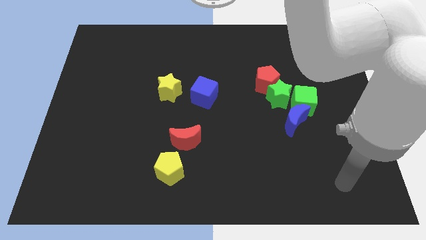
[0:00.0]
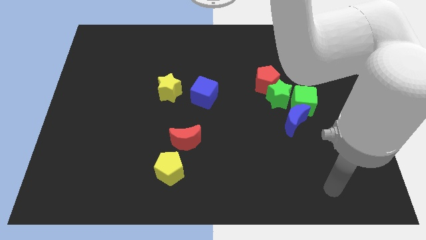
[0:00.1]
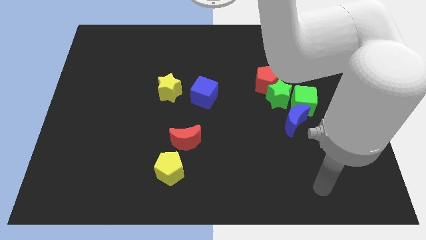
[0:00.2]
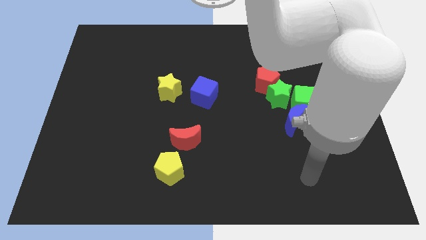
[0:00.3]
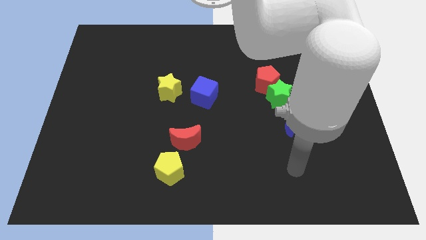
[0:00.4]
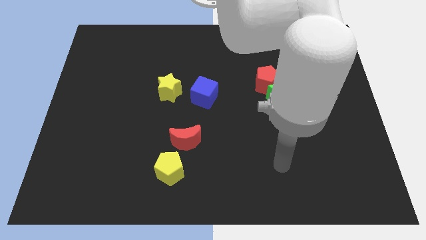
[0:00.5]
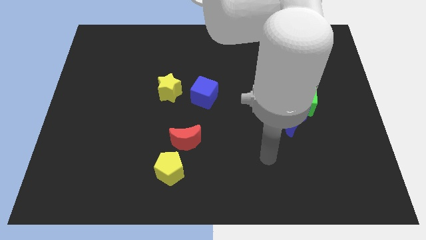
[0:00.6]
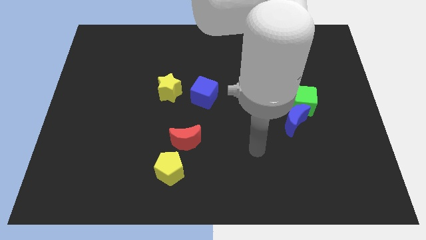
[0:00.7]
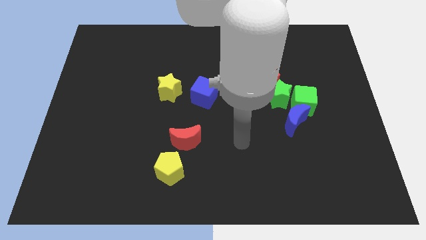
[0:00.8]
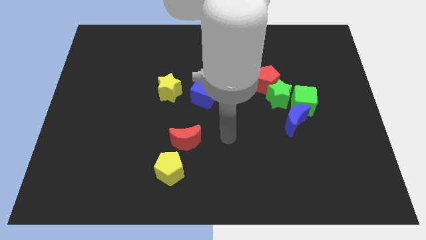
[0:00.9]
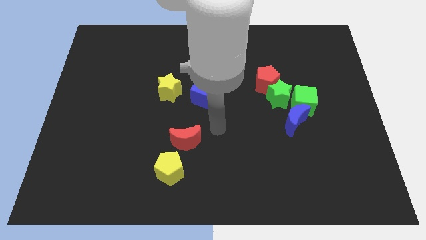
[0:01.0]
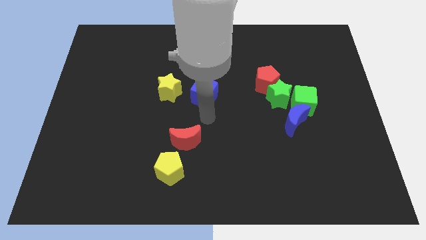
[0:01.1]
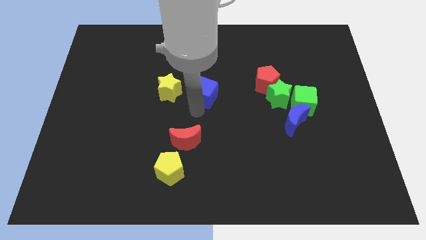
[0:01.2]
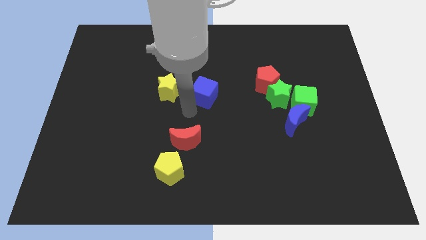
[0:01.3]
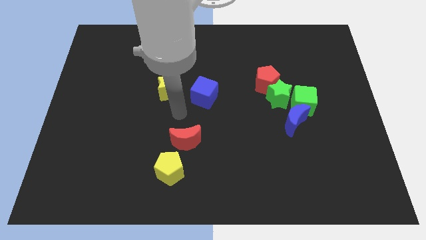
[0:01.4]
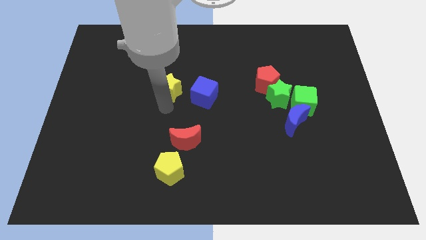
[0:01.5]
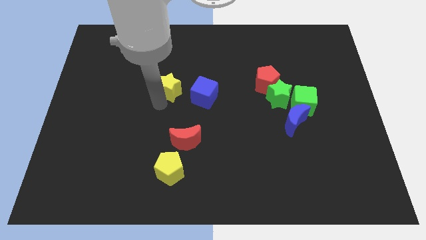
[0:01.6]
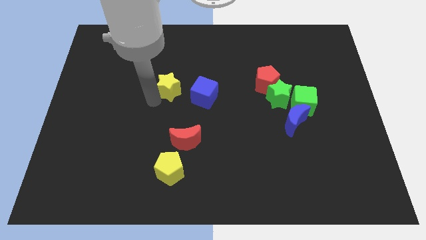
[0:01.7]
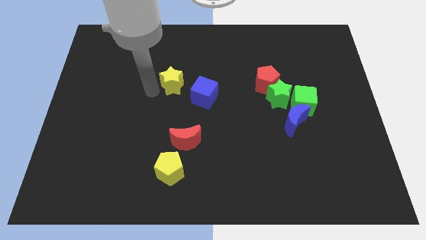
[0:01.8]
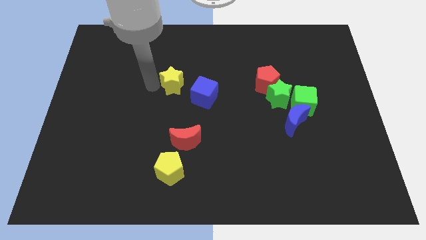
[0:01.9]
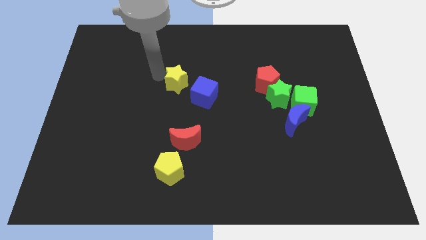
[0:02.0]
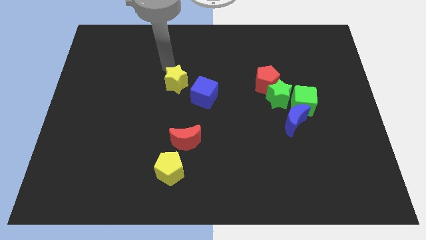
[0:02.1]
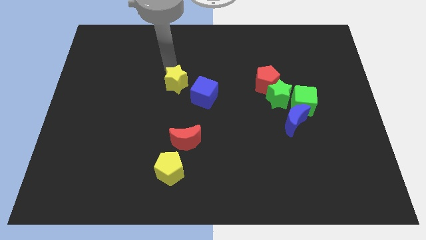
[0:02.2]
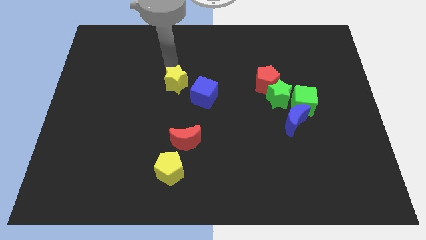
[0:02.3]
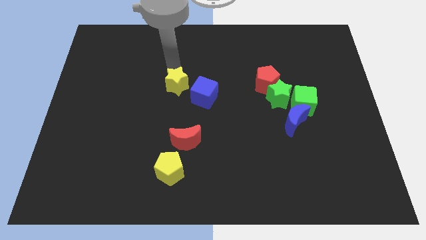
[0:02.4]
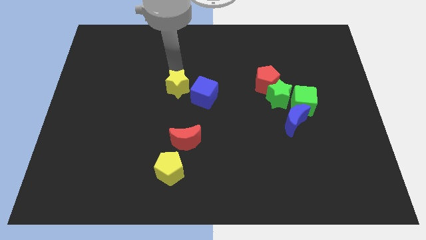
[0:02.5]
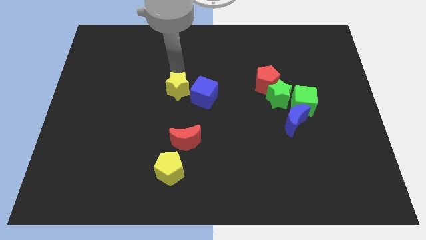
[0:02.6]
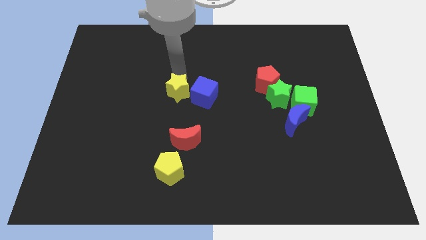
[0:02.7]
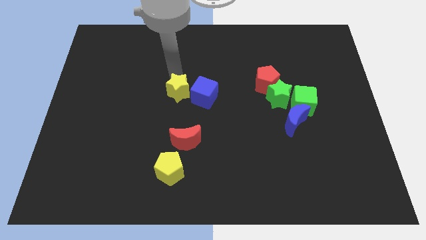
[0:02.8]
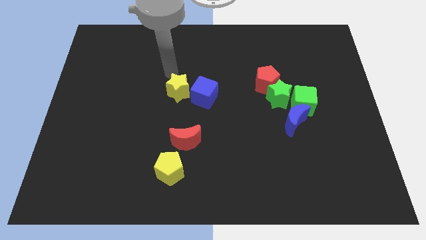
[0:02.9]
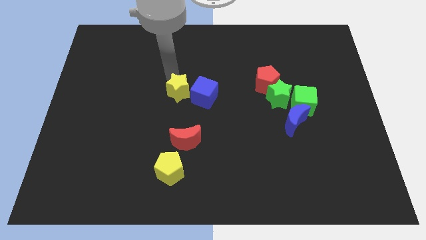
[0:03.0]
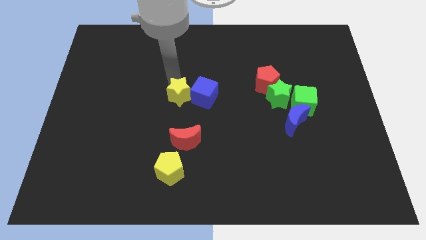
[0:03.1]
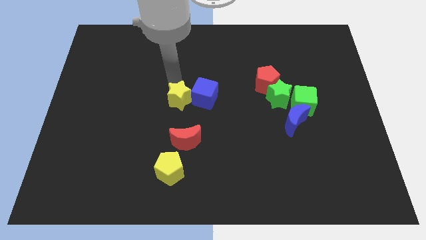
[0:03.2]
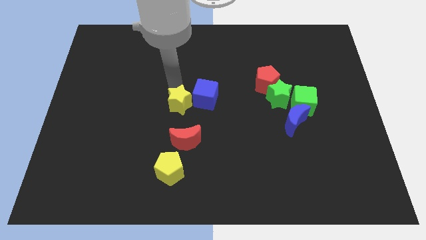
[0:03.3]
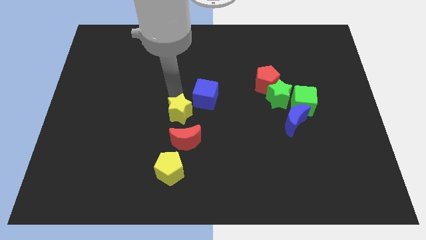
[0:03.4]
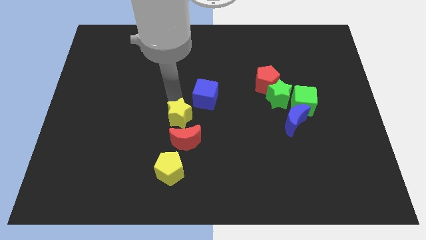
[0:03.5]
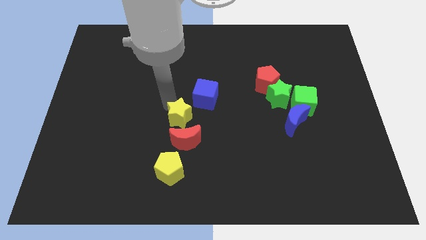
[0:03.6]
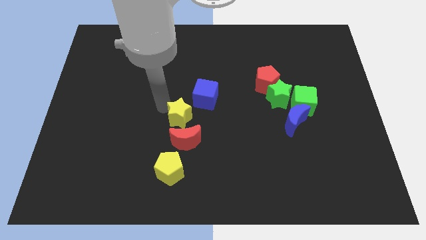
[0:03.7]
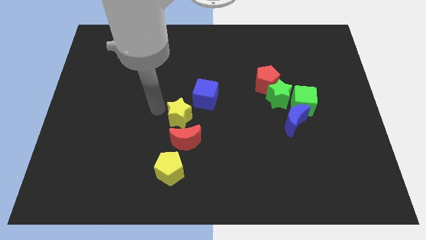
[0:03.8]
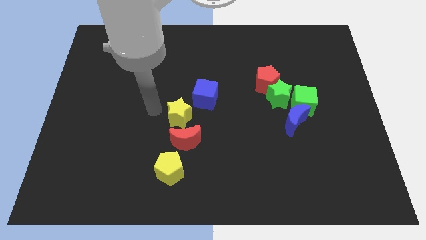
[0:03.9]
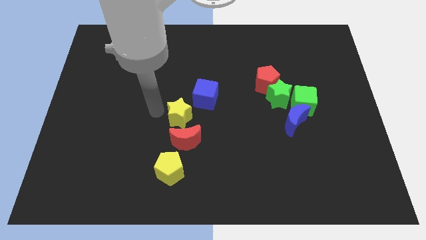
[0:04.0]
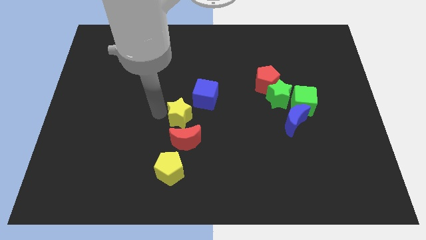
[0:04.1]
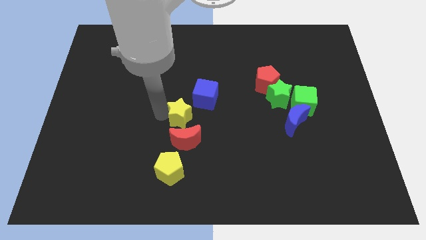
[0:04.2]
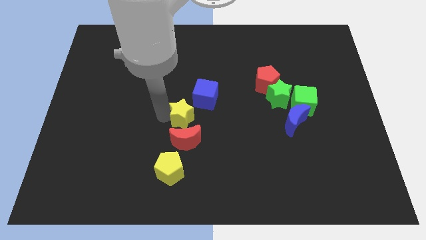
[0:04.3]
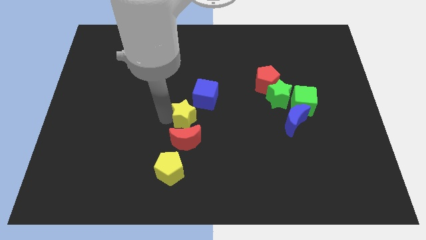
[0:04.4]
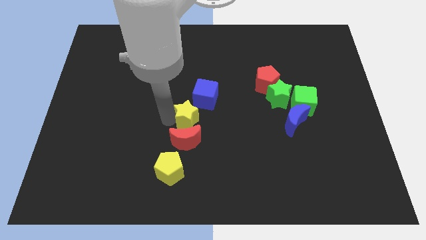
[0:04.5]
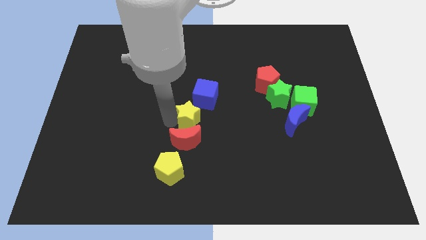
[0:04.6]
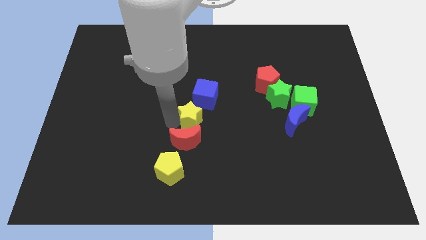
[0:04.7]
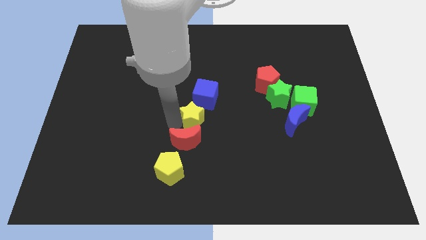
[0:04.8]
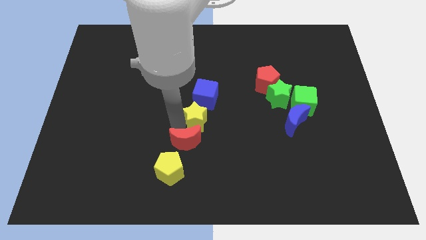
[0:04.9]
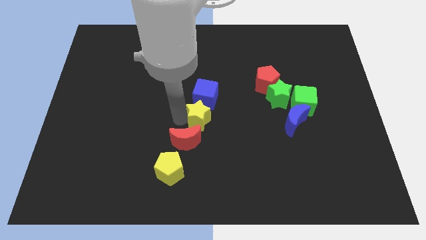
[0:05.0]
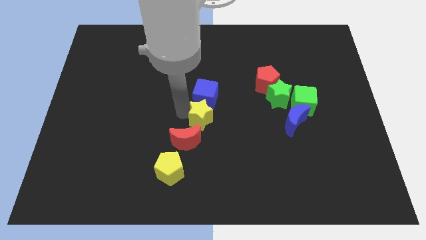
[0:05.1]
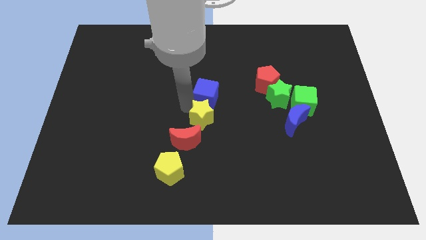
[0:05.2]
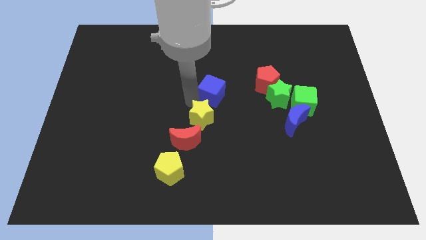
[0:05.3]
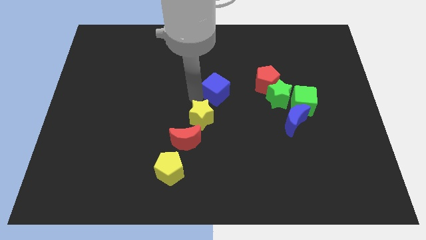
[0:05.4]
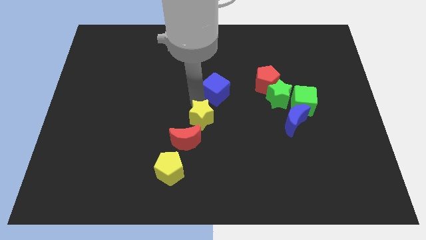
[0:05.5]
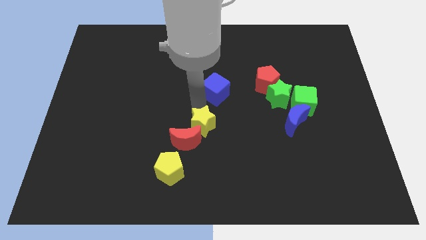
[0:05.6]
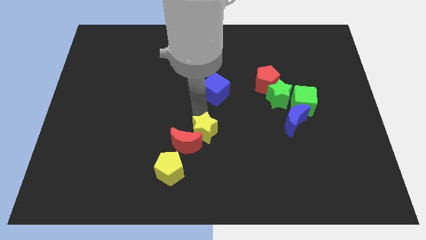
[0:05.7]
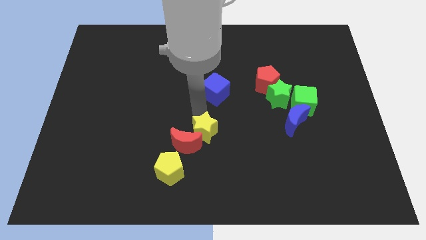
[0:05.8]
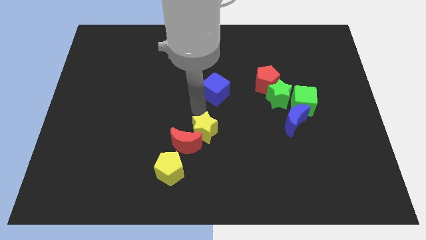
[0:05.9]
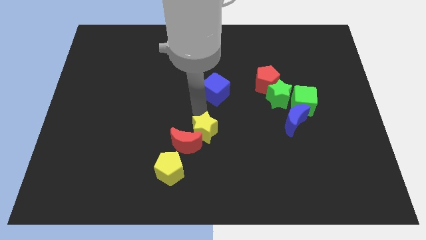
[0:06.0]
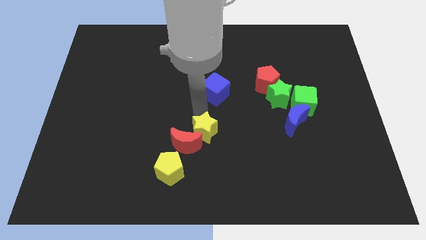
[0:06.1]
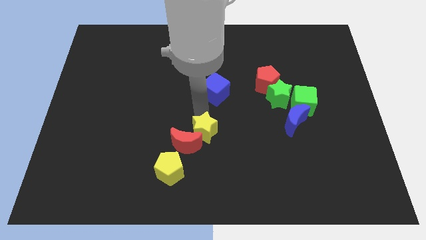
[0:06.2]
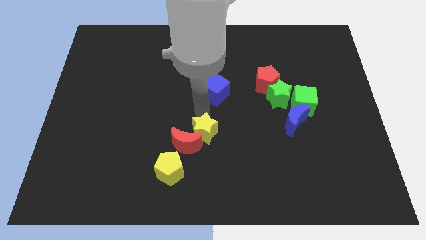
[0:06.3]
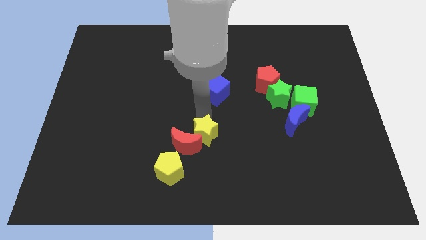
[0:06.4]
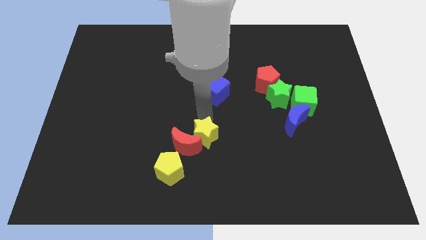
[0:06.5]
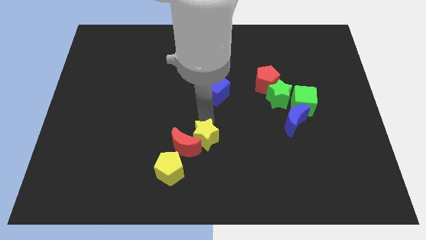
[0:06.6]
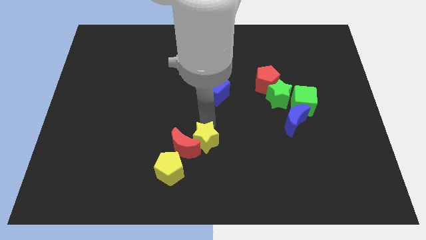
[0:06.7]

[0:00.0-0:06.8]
move the yellow star diagonally down and to the right of the red moon
